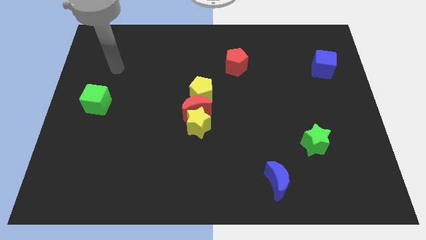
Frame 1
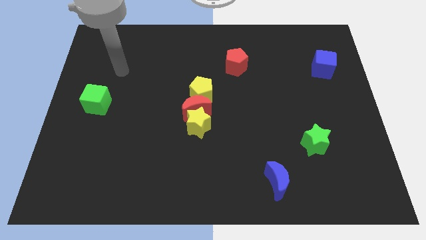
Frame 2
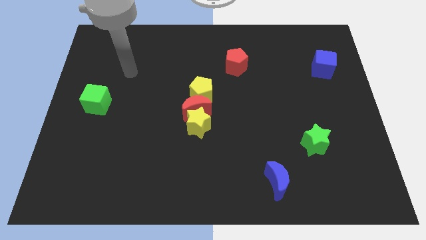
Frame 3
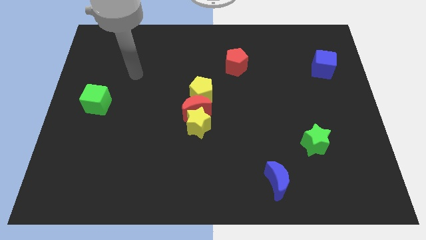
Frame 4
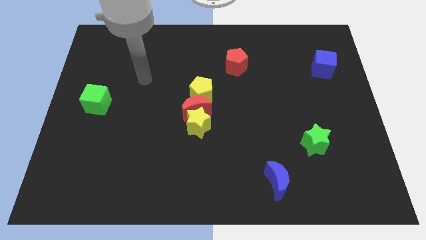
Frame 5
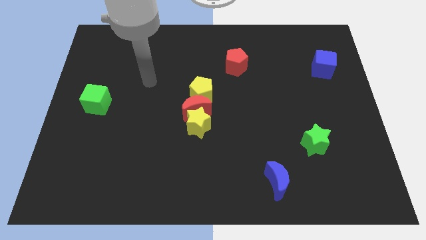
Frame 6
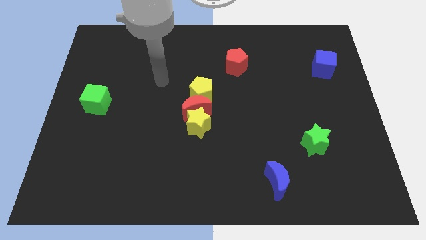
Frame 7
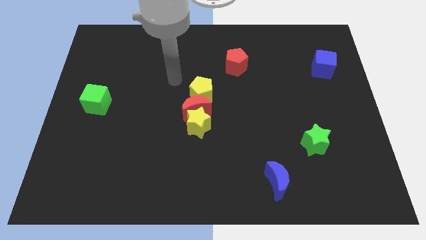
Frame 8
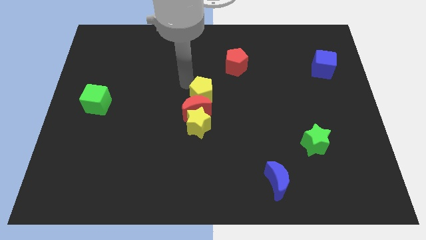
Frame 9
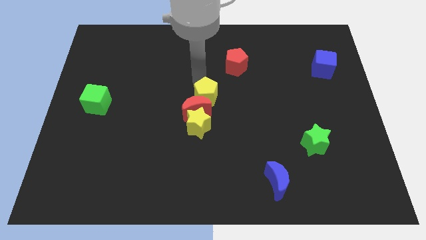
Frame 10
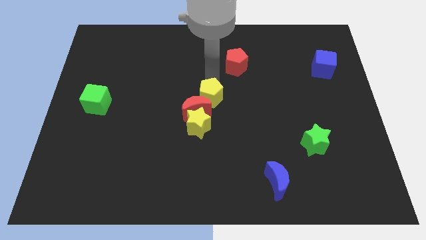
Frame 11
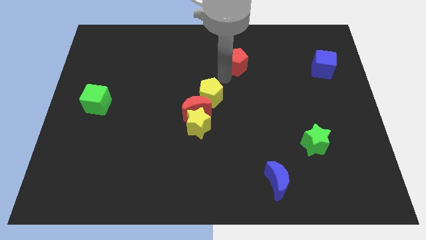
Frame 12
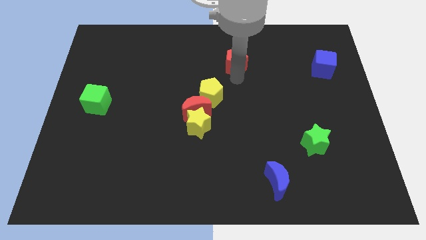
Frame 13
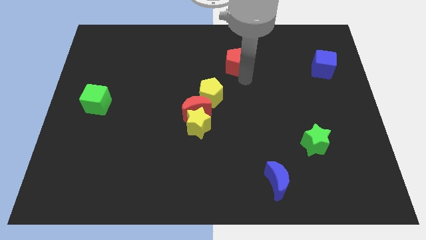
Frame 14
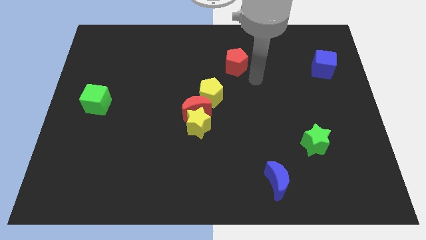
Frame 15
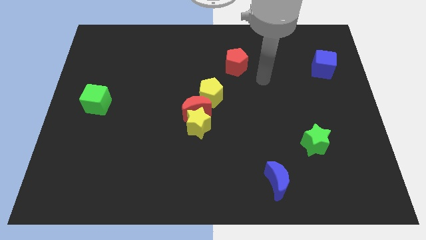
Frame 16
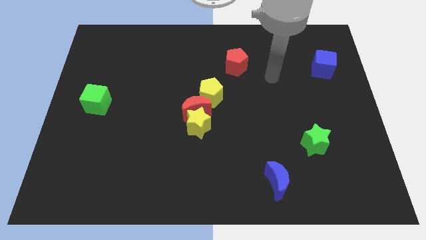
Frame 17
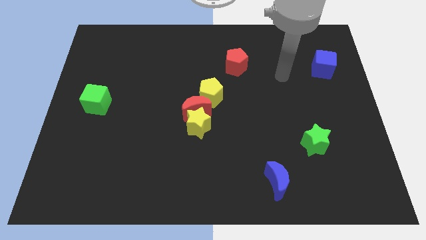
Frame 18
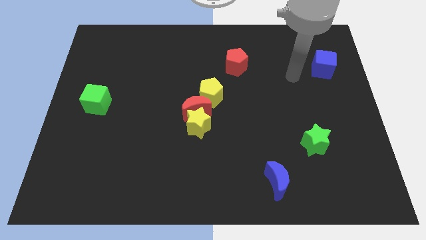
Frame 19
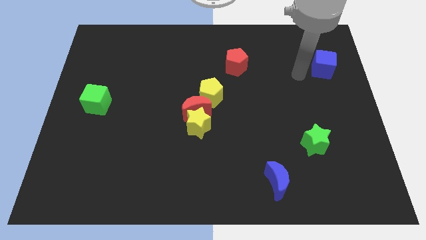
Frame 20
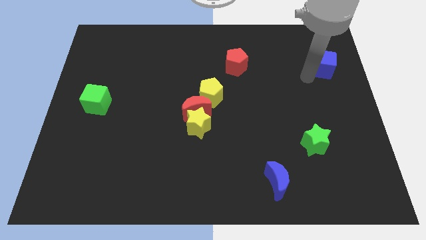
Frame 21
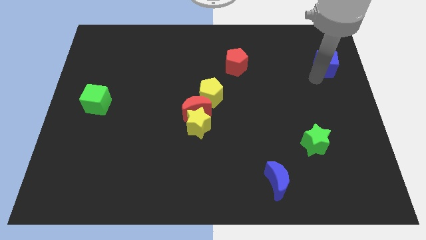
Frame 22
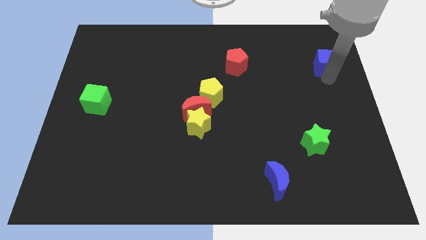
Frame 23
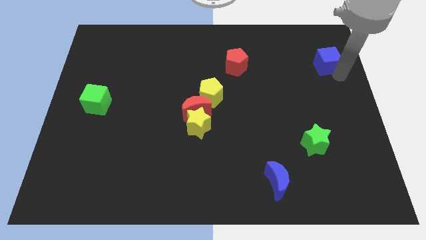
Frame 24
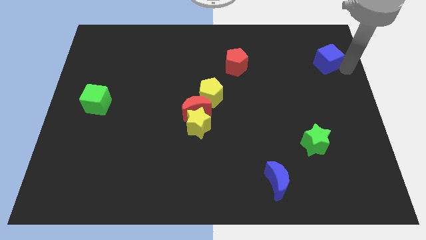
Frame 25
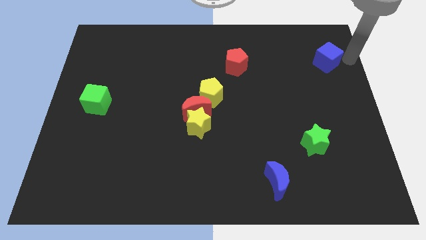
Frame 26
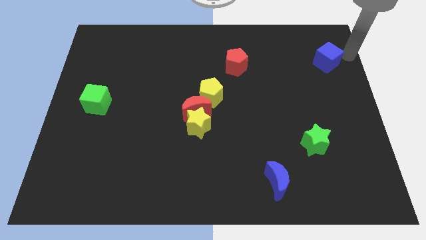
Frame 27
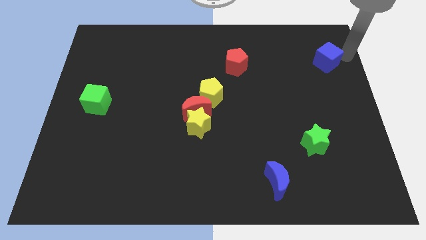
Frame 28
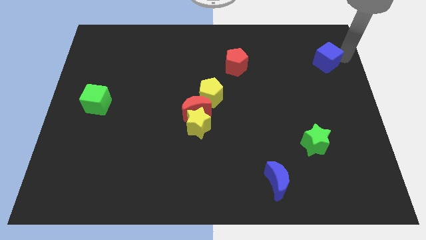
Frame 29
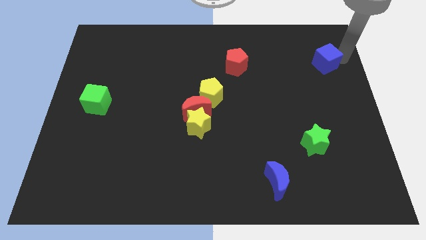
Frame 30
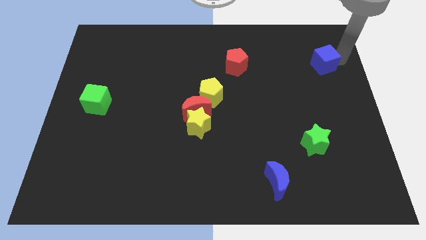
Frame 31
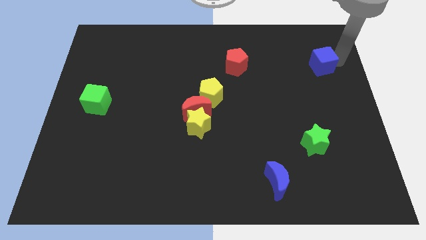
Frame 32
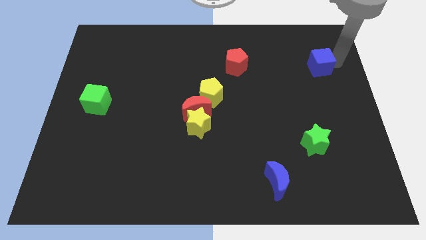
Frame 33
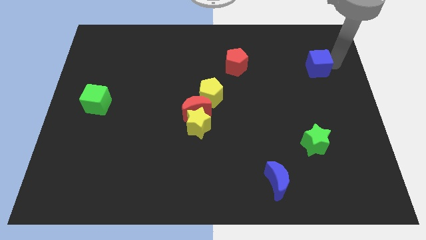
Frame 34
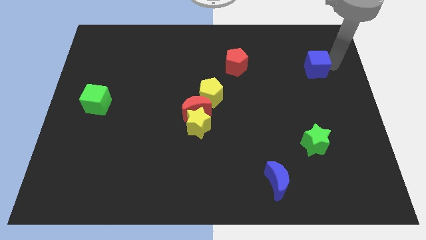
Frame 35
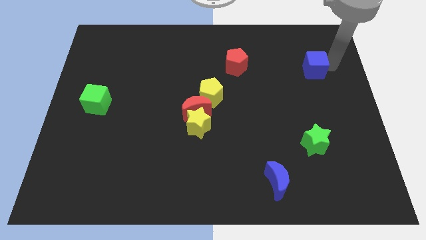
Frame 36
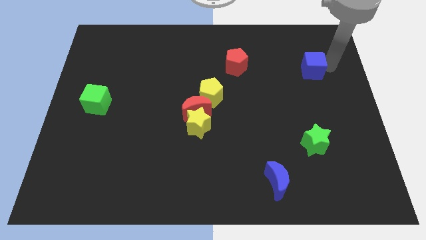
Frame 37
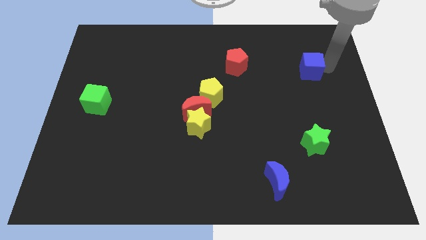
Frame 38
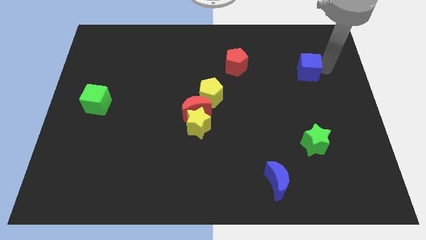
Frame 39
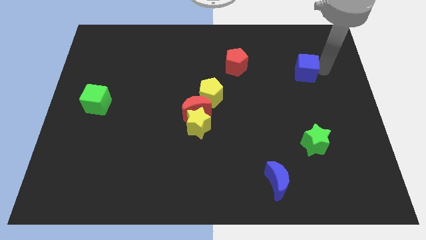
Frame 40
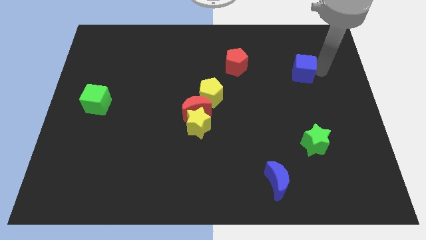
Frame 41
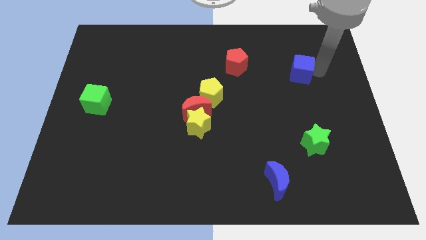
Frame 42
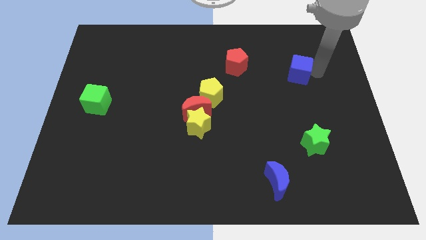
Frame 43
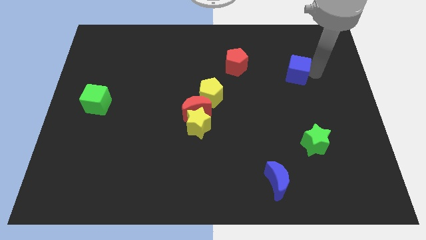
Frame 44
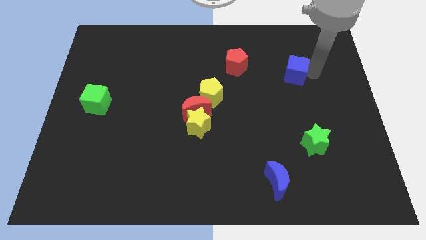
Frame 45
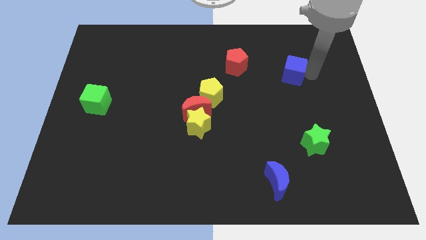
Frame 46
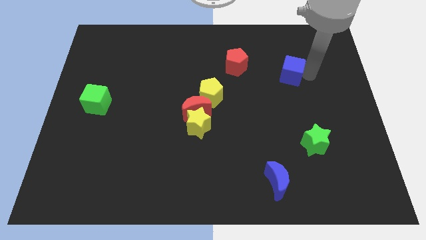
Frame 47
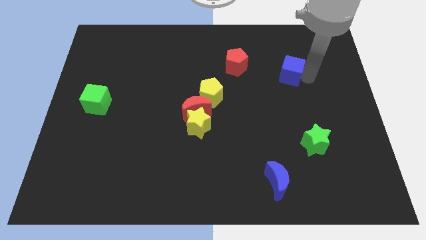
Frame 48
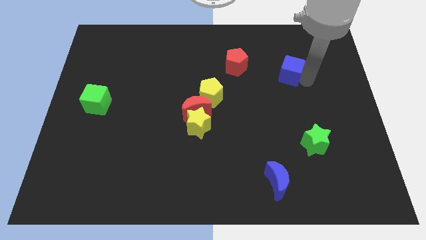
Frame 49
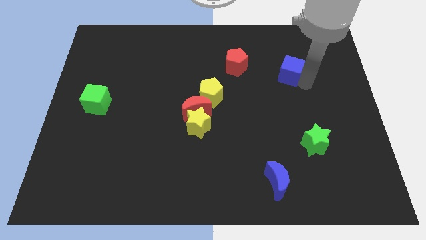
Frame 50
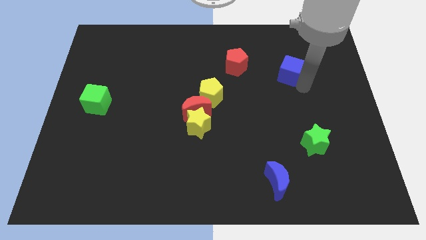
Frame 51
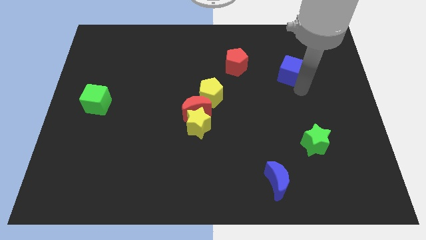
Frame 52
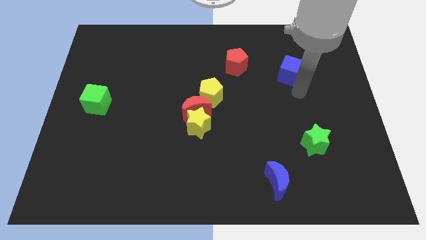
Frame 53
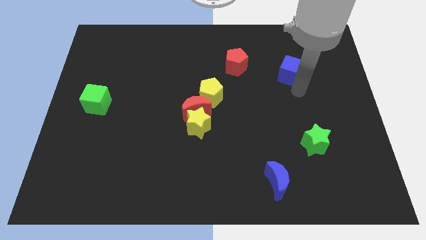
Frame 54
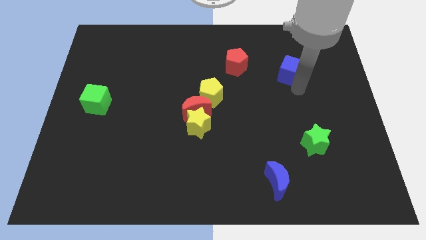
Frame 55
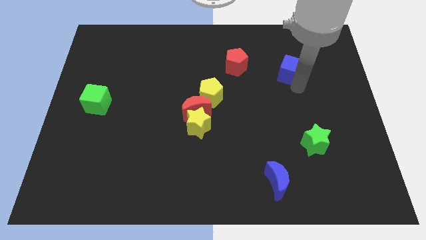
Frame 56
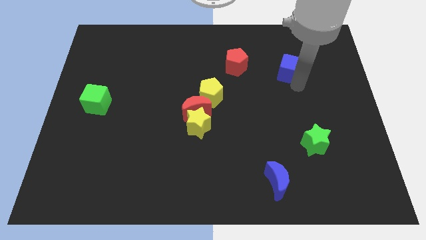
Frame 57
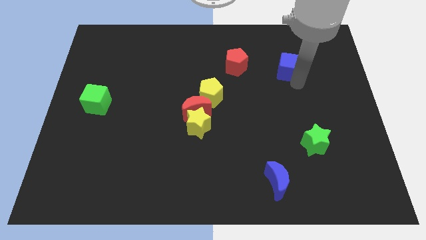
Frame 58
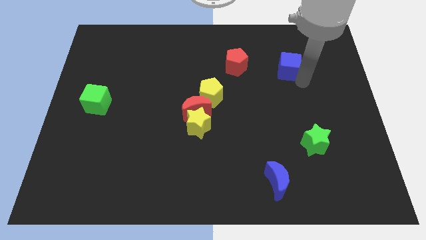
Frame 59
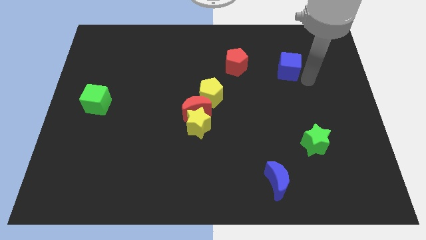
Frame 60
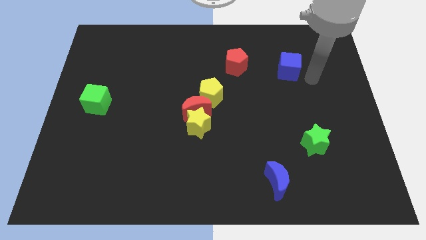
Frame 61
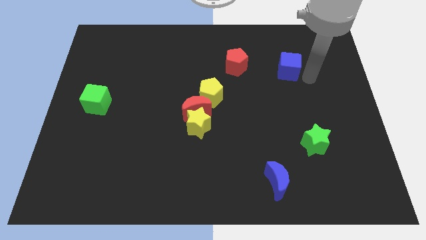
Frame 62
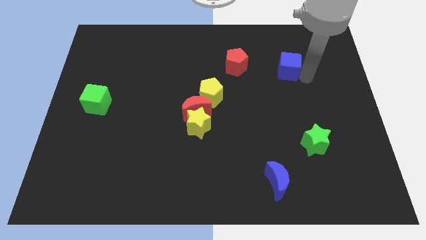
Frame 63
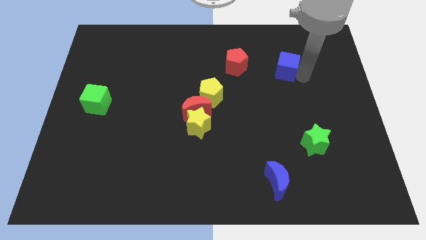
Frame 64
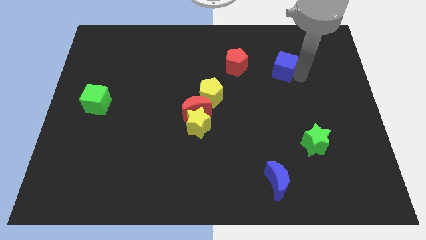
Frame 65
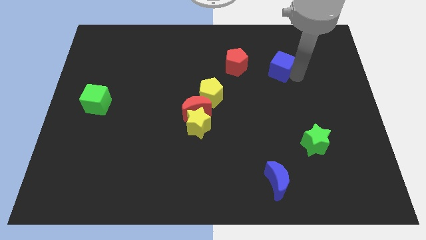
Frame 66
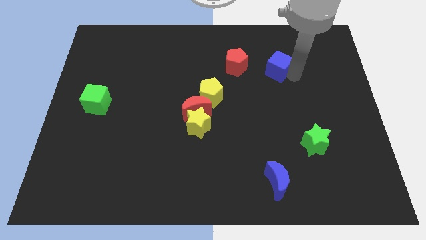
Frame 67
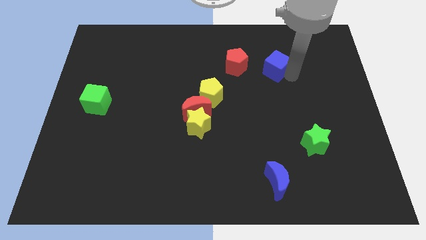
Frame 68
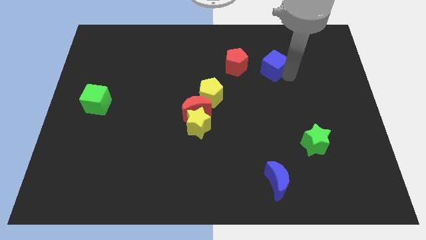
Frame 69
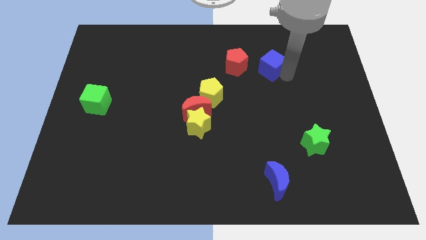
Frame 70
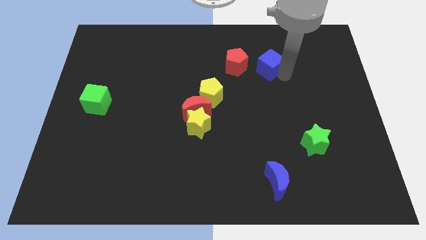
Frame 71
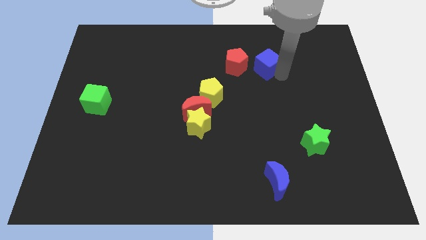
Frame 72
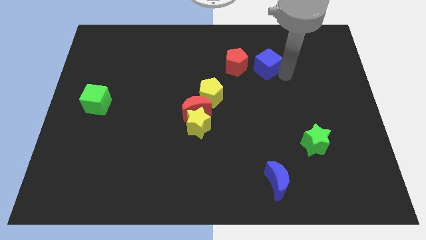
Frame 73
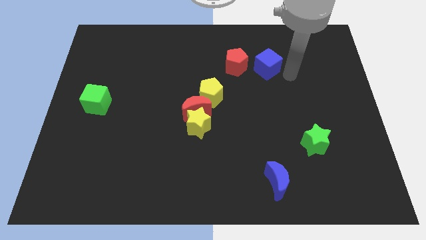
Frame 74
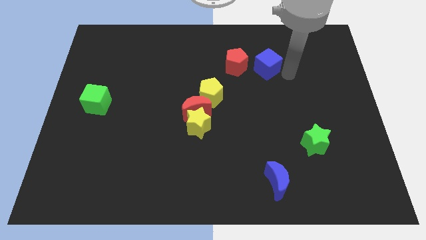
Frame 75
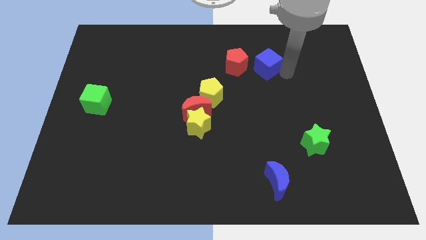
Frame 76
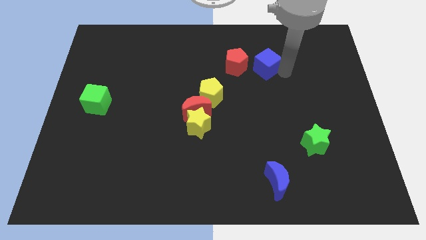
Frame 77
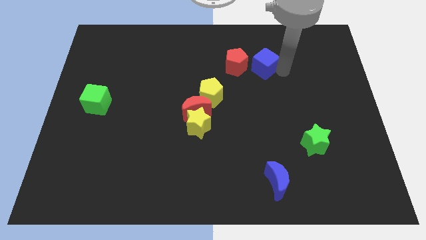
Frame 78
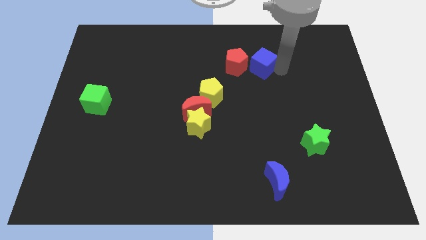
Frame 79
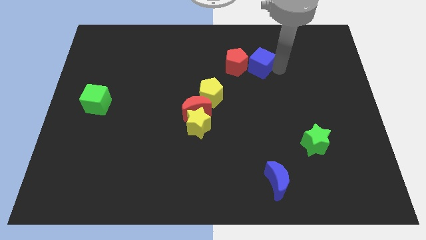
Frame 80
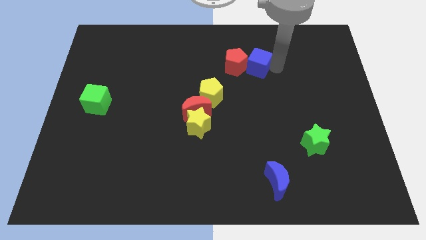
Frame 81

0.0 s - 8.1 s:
put the blue cube close to the red pentagon
